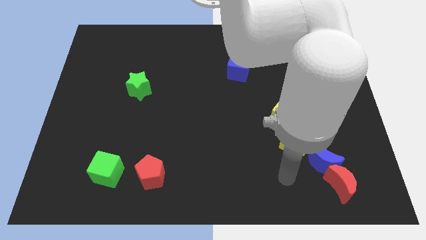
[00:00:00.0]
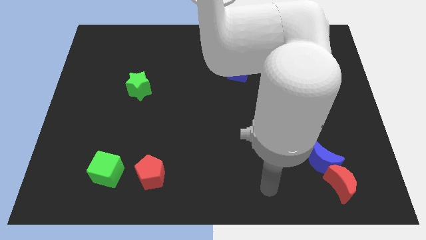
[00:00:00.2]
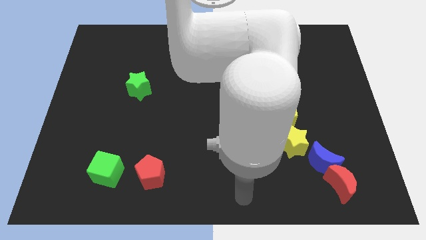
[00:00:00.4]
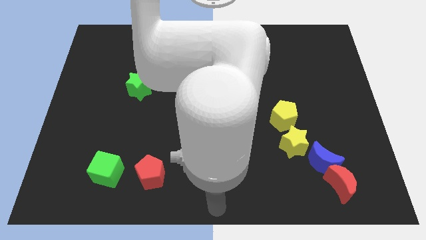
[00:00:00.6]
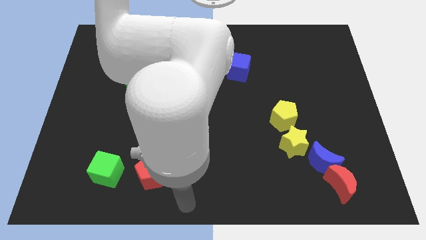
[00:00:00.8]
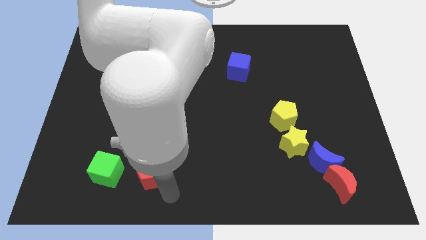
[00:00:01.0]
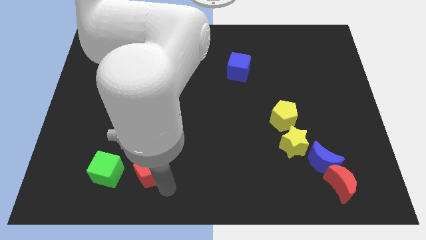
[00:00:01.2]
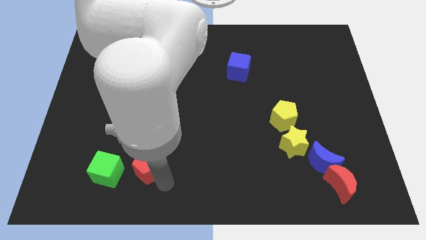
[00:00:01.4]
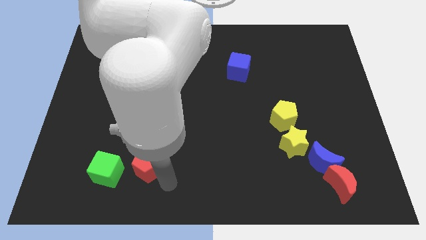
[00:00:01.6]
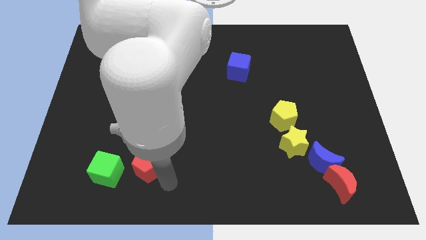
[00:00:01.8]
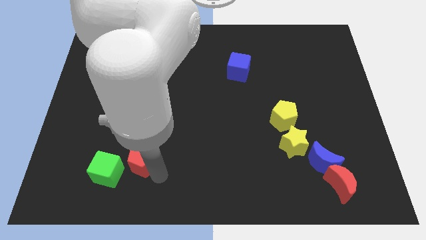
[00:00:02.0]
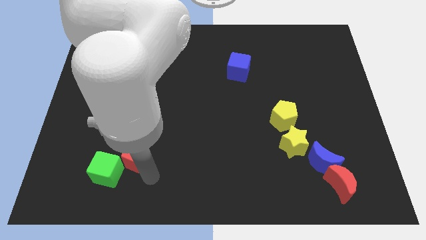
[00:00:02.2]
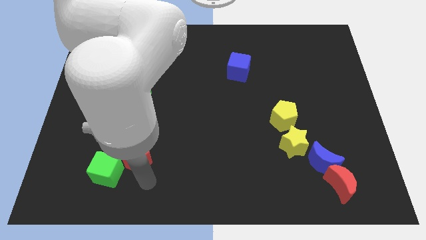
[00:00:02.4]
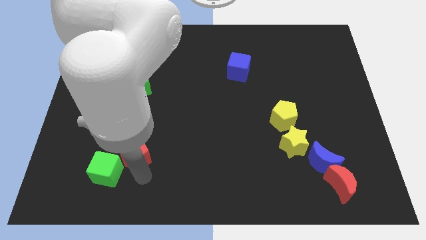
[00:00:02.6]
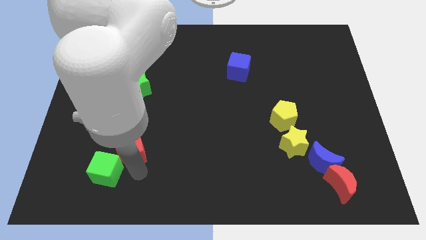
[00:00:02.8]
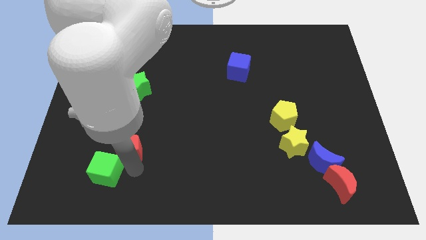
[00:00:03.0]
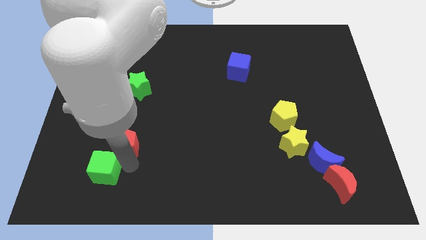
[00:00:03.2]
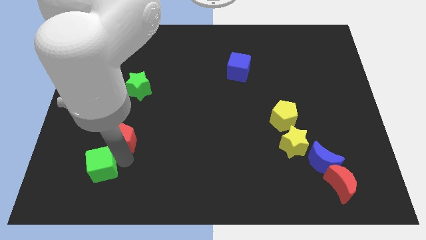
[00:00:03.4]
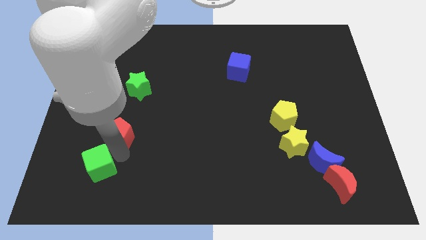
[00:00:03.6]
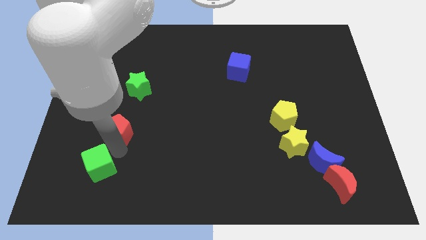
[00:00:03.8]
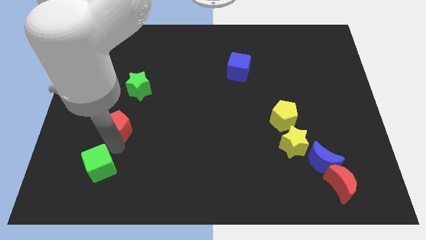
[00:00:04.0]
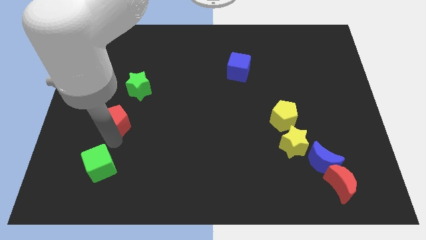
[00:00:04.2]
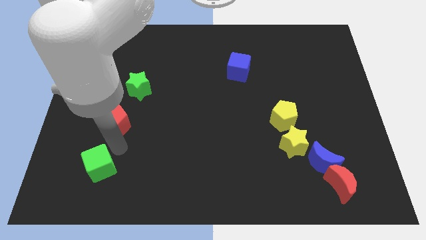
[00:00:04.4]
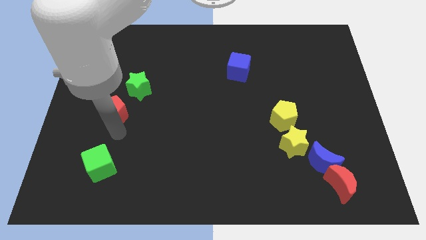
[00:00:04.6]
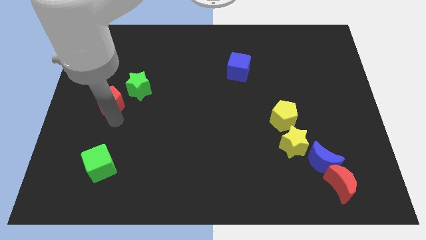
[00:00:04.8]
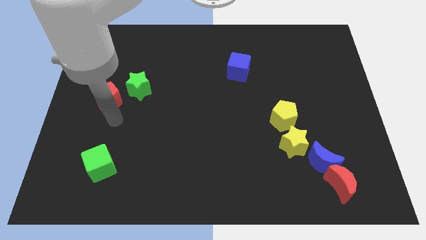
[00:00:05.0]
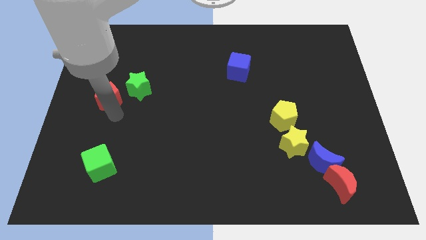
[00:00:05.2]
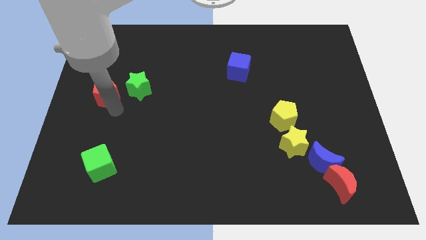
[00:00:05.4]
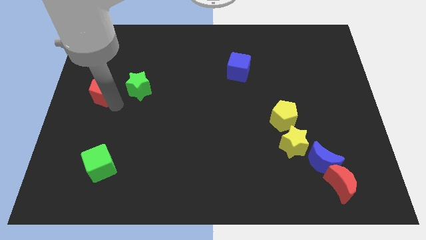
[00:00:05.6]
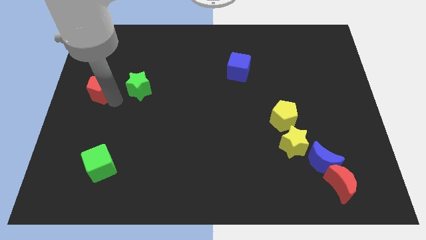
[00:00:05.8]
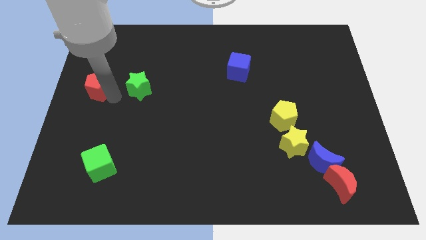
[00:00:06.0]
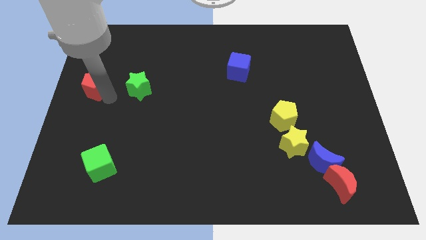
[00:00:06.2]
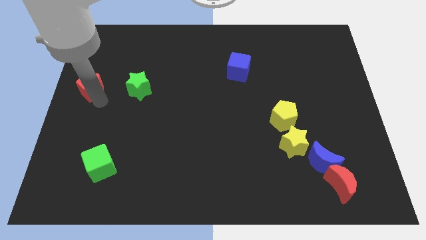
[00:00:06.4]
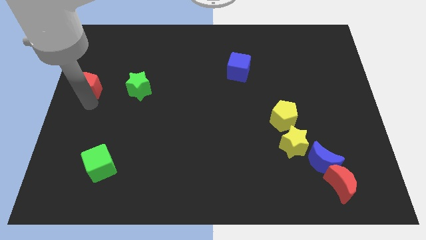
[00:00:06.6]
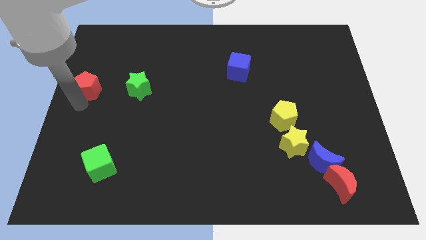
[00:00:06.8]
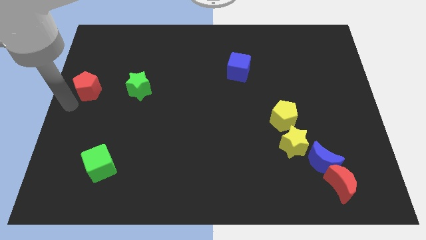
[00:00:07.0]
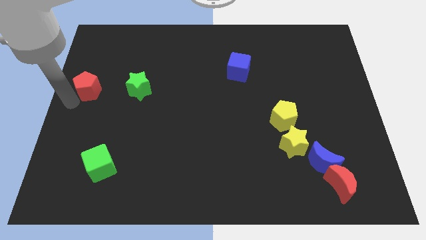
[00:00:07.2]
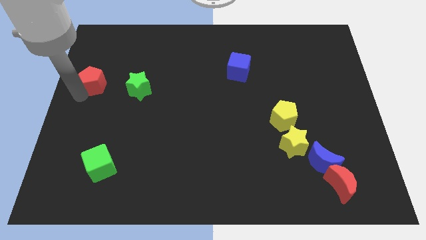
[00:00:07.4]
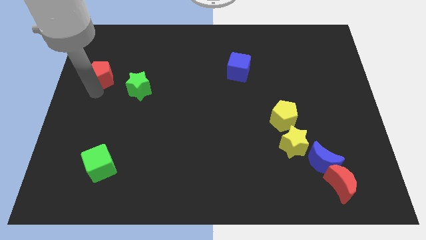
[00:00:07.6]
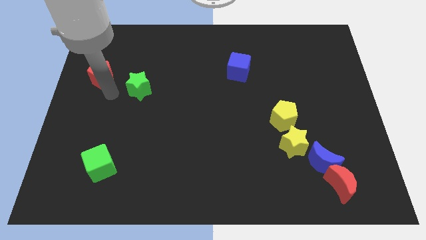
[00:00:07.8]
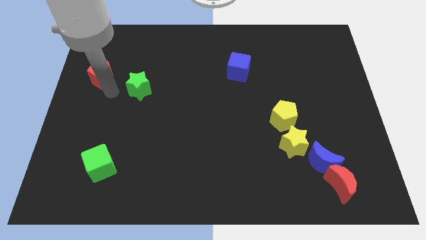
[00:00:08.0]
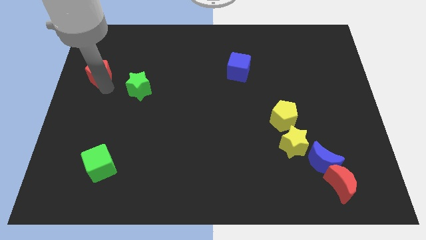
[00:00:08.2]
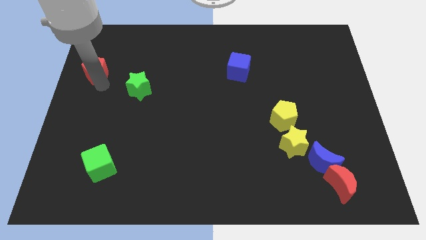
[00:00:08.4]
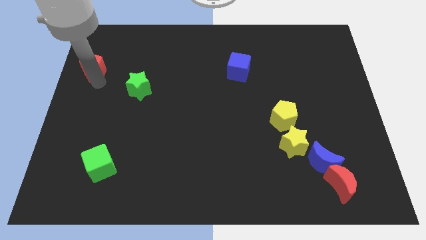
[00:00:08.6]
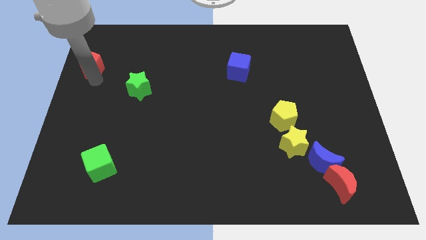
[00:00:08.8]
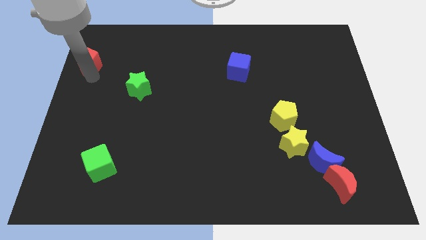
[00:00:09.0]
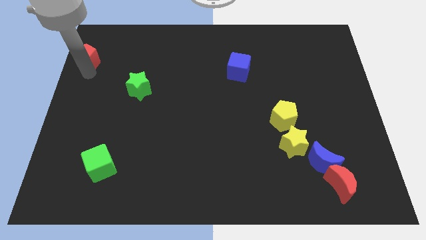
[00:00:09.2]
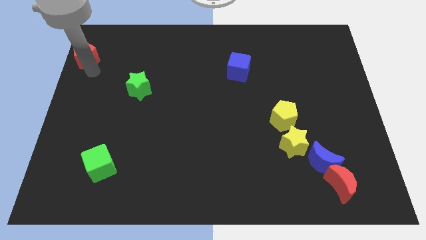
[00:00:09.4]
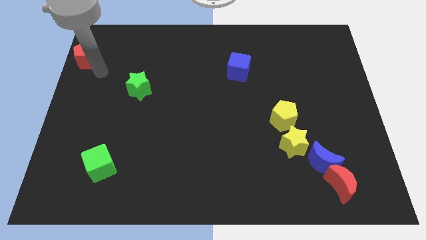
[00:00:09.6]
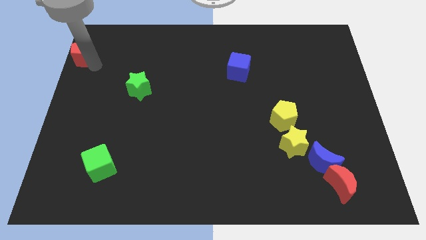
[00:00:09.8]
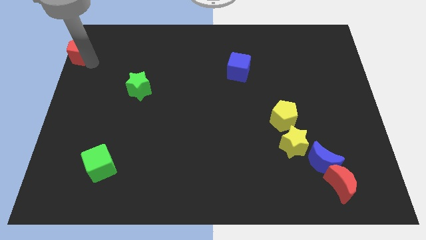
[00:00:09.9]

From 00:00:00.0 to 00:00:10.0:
move the red pentagon to the top left corner

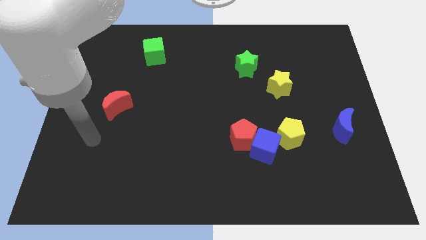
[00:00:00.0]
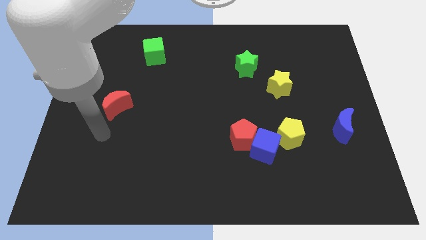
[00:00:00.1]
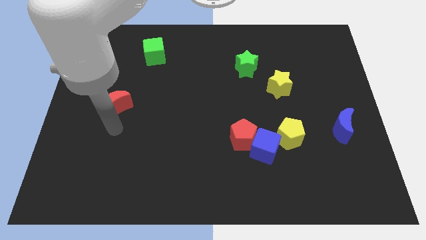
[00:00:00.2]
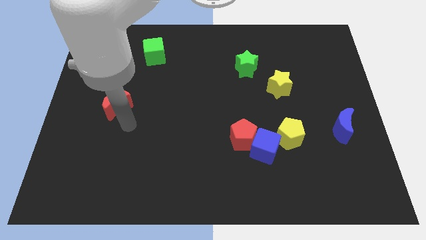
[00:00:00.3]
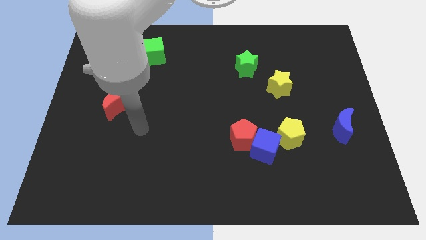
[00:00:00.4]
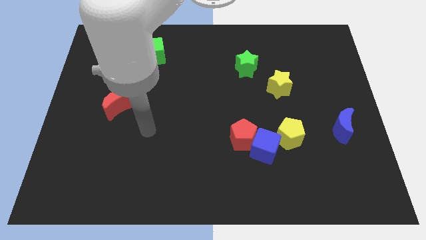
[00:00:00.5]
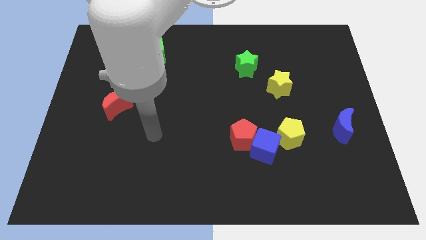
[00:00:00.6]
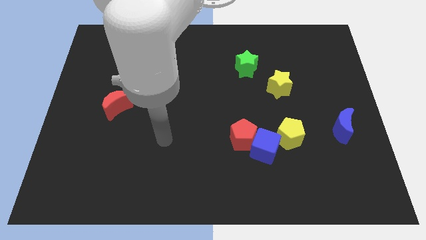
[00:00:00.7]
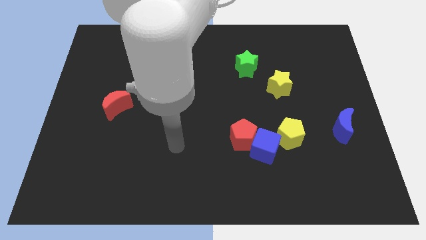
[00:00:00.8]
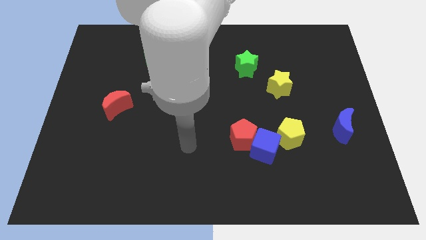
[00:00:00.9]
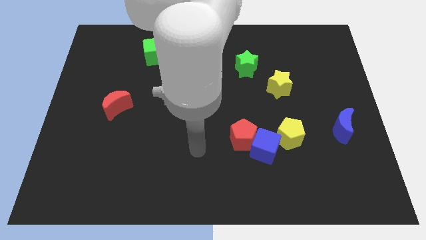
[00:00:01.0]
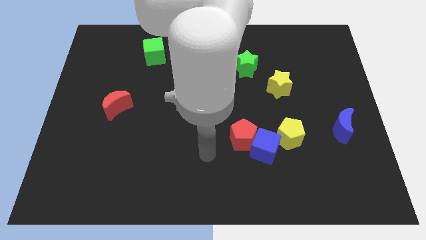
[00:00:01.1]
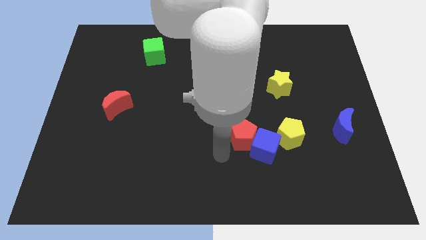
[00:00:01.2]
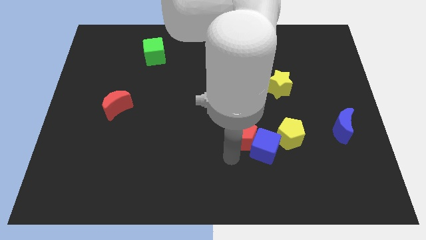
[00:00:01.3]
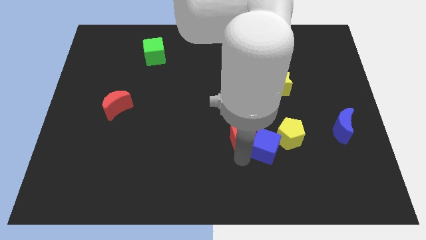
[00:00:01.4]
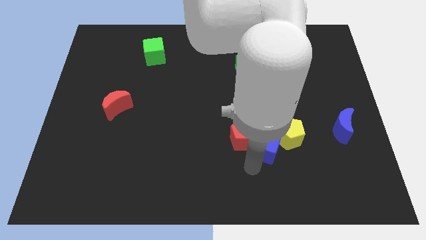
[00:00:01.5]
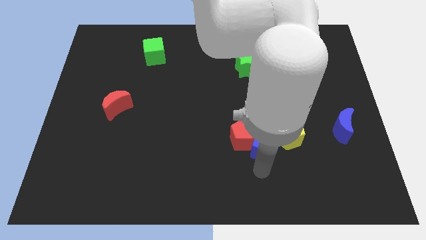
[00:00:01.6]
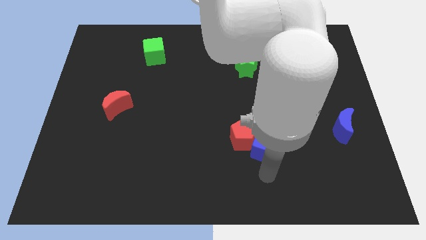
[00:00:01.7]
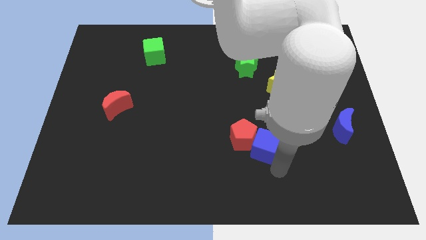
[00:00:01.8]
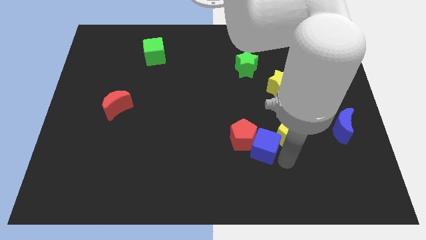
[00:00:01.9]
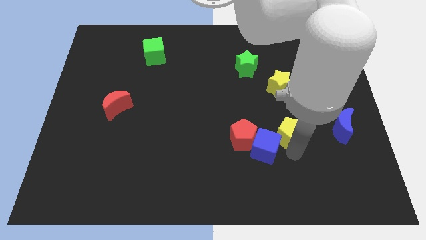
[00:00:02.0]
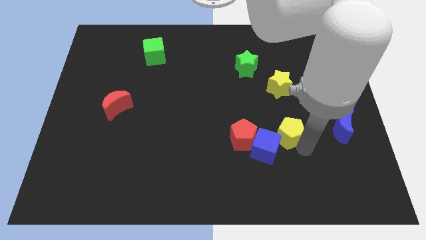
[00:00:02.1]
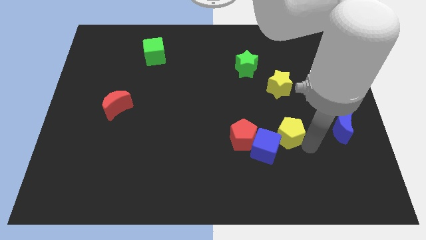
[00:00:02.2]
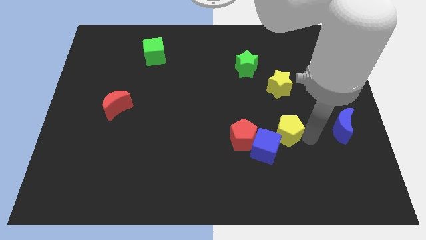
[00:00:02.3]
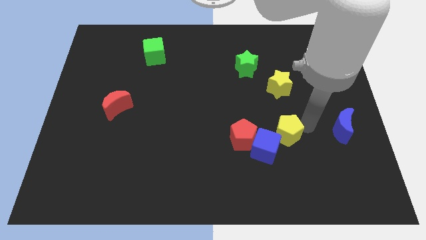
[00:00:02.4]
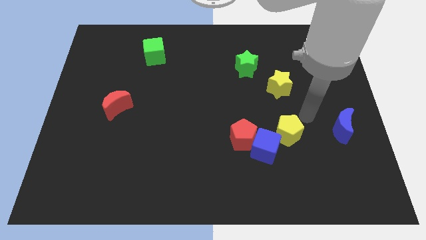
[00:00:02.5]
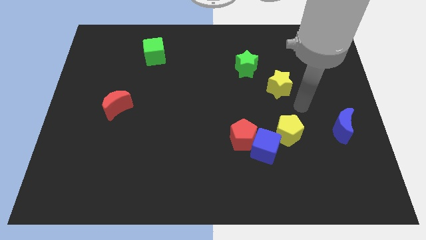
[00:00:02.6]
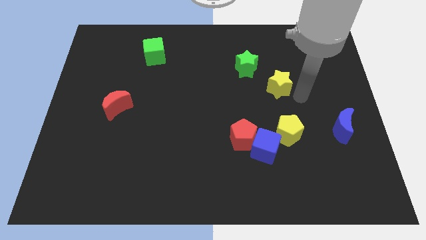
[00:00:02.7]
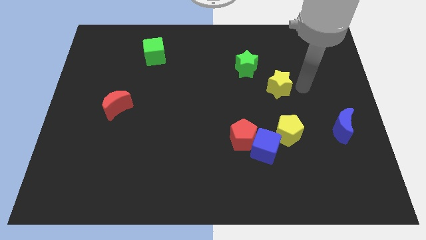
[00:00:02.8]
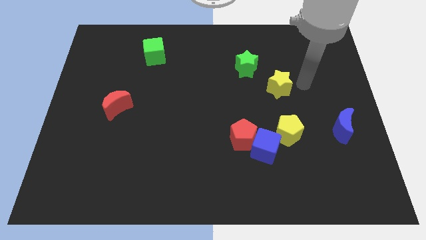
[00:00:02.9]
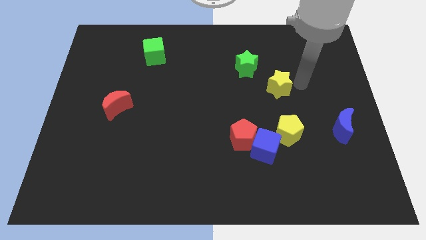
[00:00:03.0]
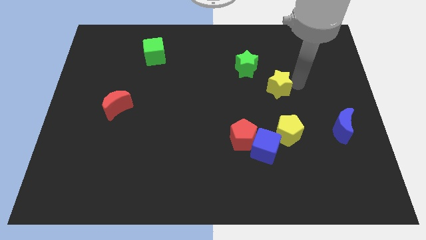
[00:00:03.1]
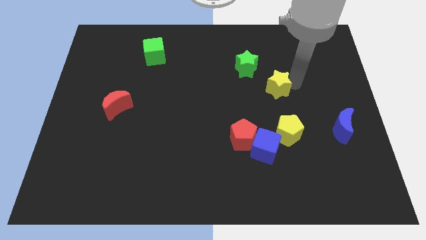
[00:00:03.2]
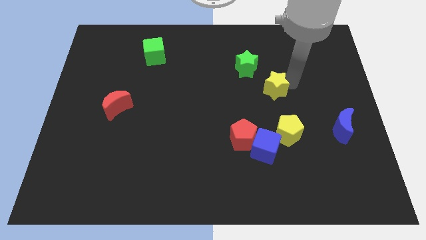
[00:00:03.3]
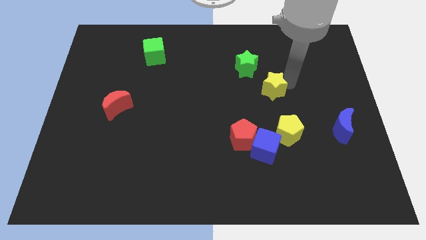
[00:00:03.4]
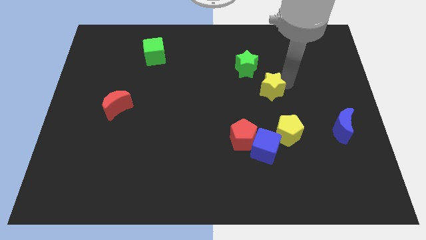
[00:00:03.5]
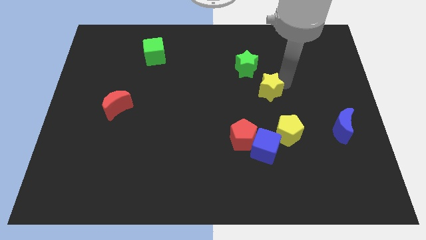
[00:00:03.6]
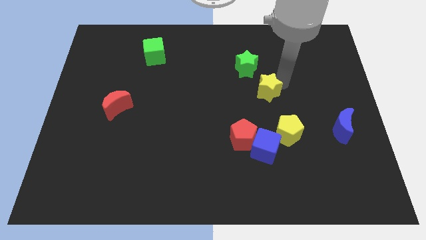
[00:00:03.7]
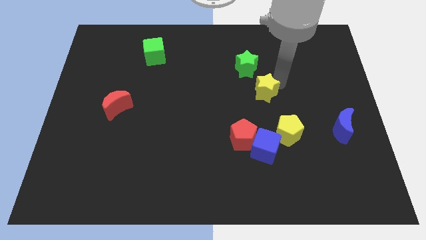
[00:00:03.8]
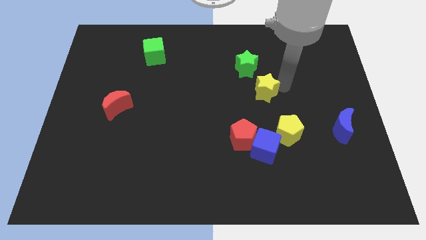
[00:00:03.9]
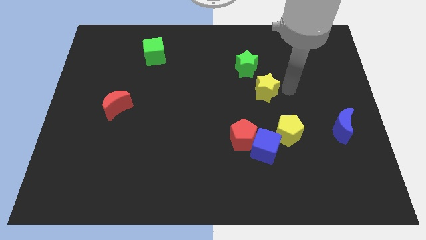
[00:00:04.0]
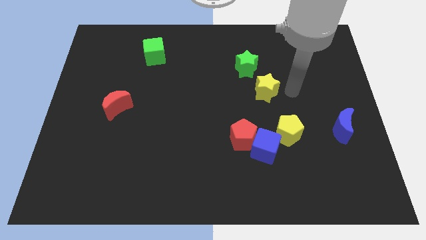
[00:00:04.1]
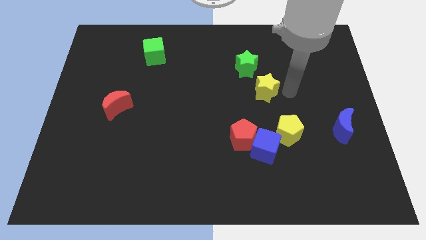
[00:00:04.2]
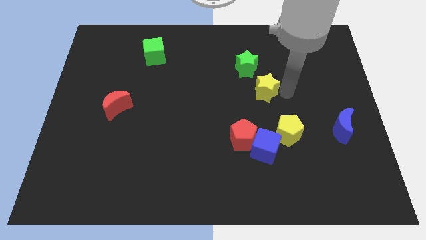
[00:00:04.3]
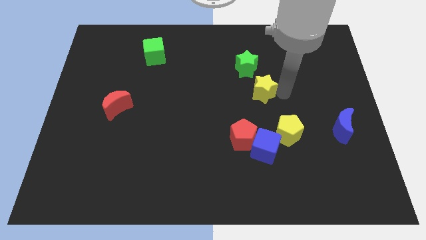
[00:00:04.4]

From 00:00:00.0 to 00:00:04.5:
push the yellow star to the middle of the board
